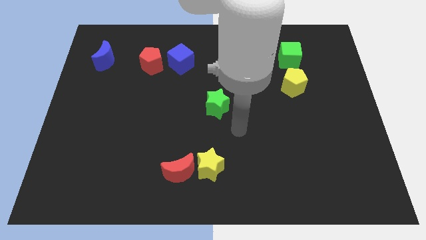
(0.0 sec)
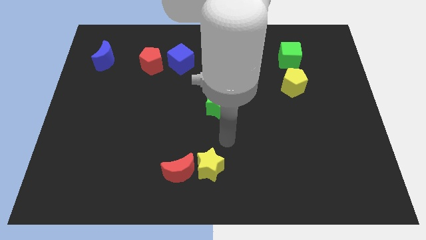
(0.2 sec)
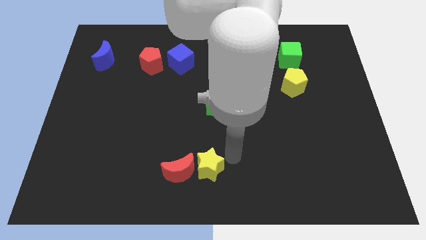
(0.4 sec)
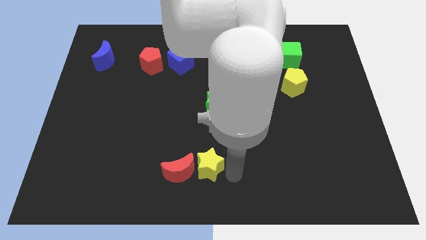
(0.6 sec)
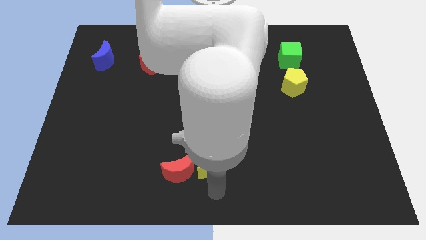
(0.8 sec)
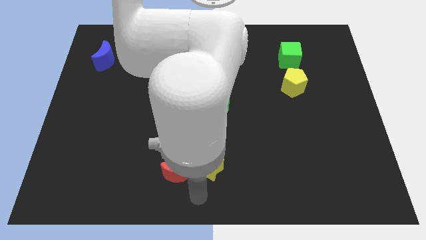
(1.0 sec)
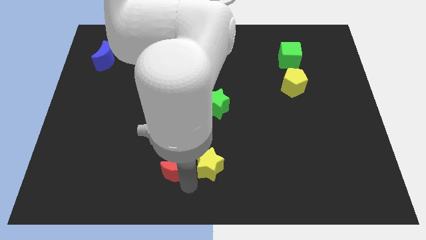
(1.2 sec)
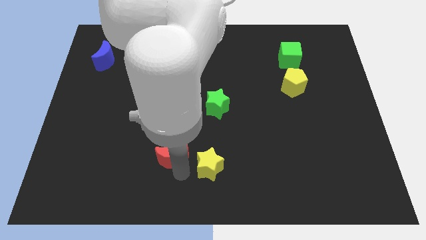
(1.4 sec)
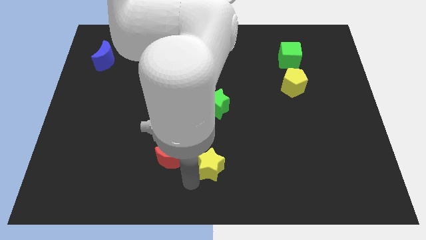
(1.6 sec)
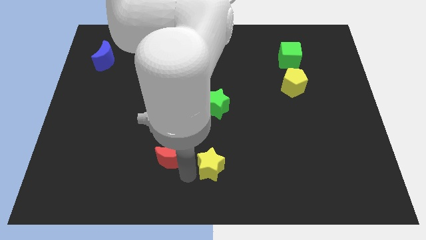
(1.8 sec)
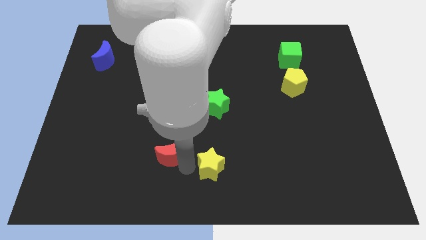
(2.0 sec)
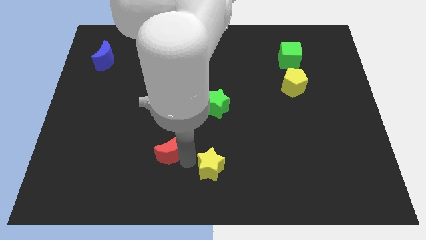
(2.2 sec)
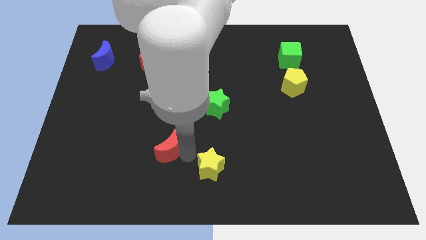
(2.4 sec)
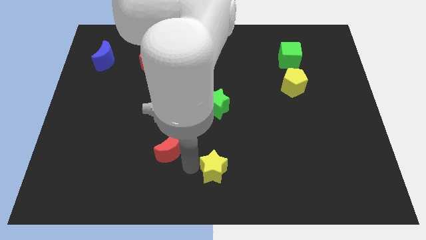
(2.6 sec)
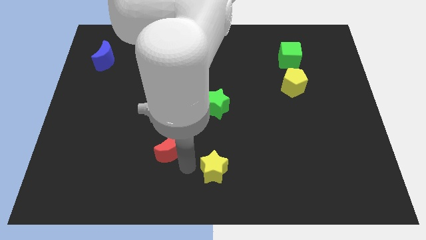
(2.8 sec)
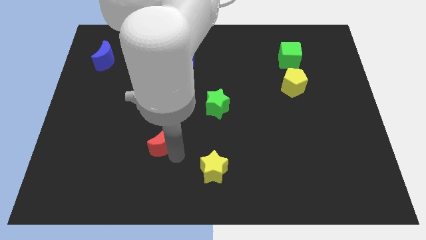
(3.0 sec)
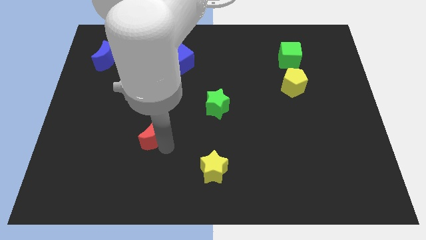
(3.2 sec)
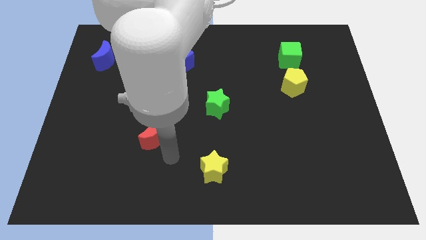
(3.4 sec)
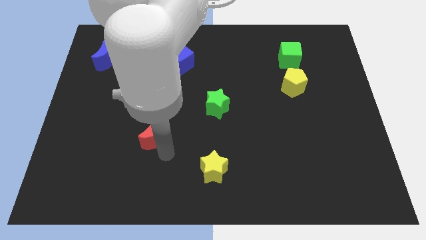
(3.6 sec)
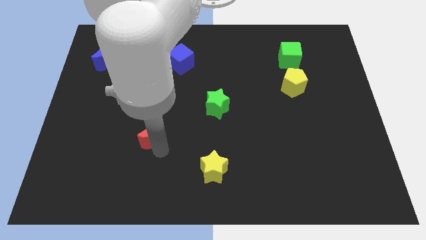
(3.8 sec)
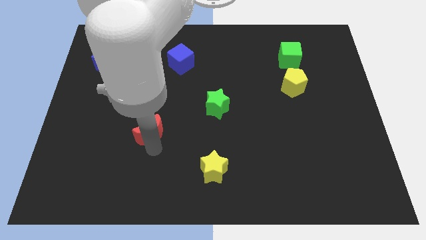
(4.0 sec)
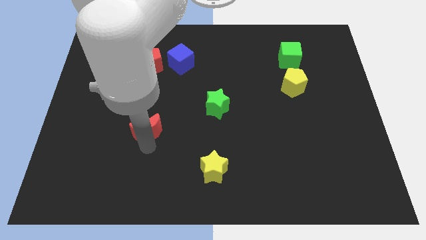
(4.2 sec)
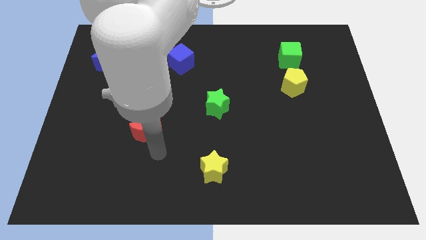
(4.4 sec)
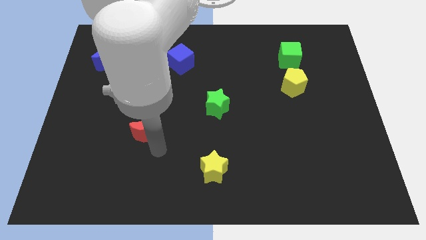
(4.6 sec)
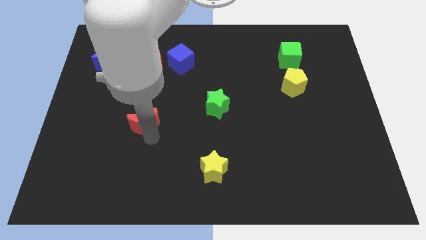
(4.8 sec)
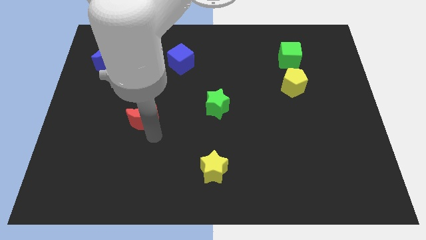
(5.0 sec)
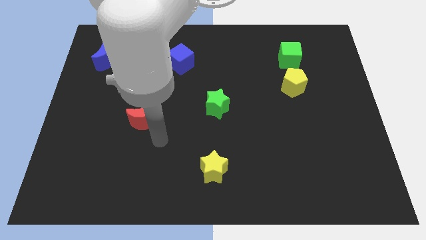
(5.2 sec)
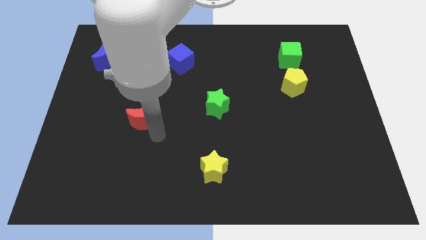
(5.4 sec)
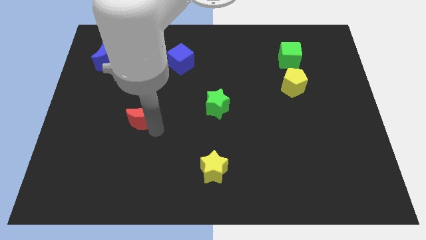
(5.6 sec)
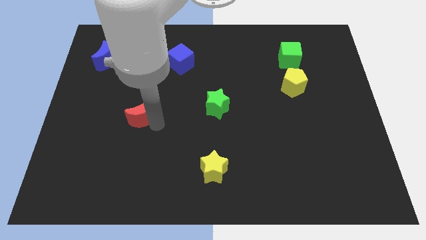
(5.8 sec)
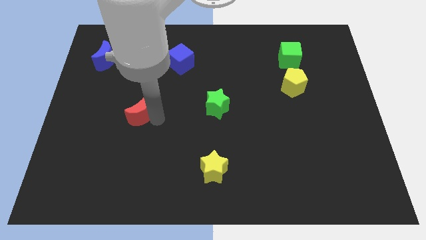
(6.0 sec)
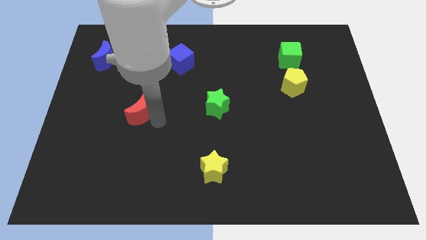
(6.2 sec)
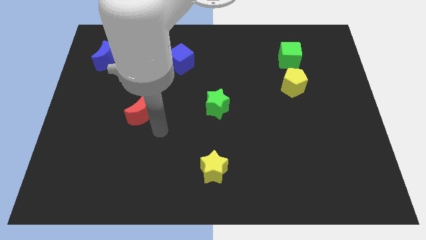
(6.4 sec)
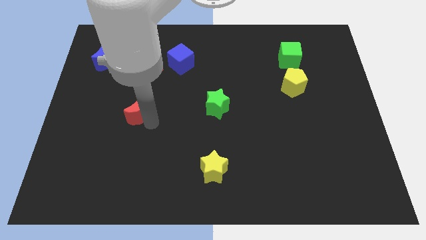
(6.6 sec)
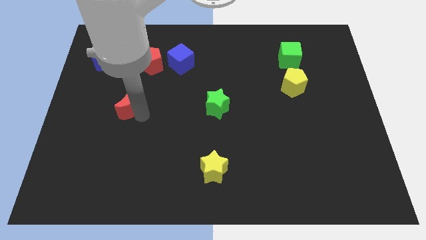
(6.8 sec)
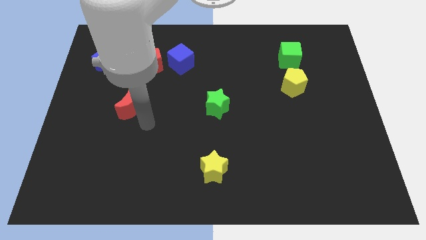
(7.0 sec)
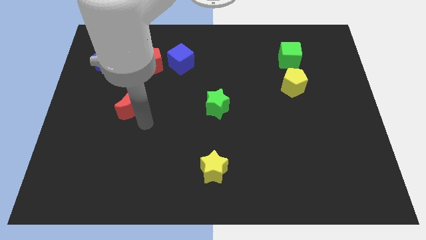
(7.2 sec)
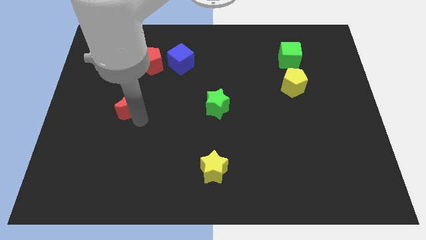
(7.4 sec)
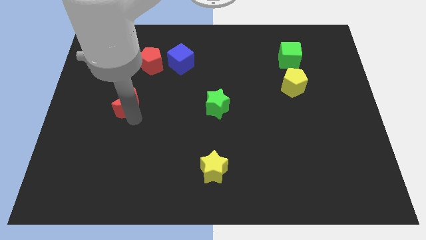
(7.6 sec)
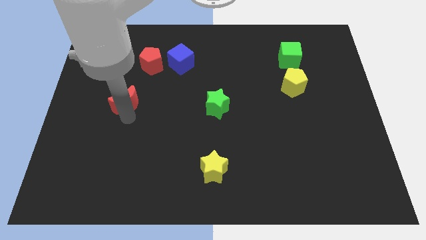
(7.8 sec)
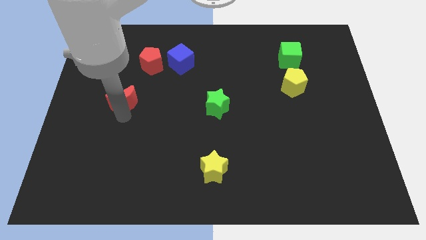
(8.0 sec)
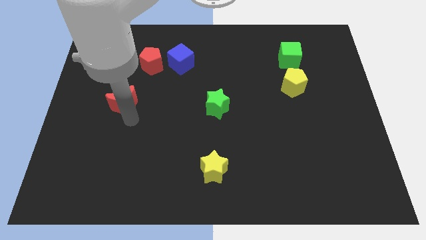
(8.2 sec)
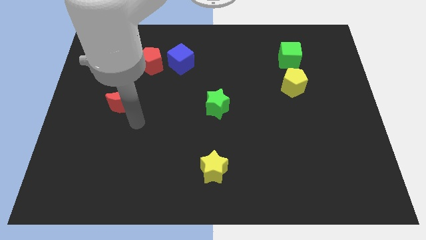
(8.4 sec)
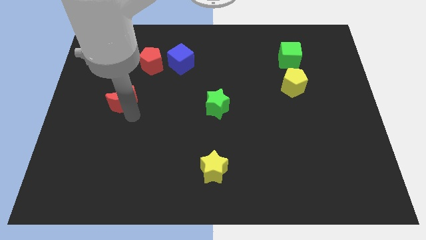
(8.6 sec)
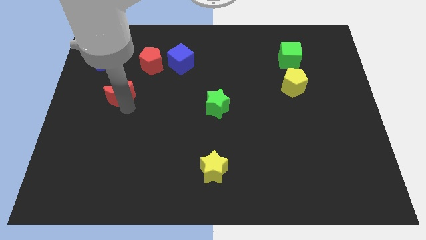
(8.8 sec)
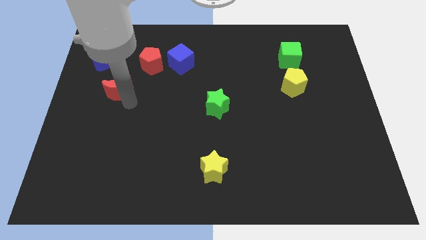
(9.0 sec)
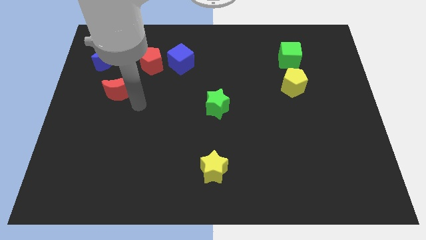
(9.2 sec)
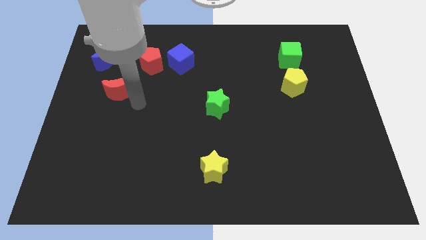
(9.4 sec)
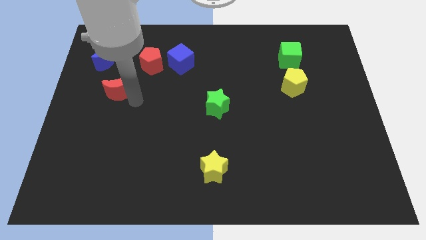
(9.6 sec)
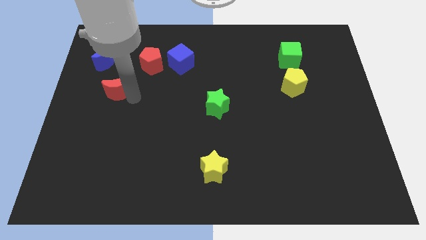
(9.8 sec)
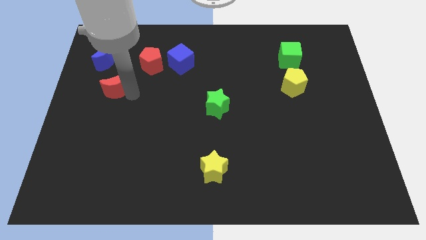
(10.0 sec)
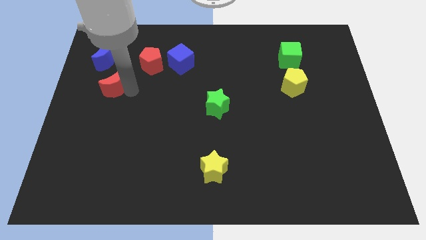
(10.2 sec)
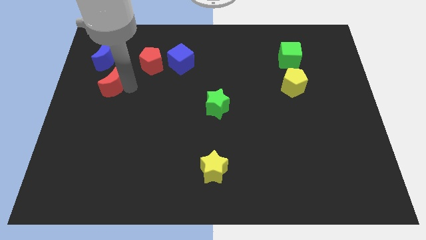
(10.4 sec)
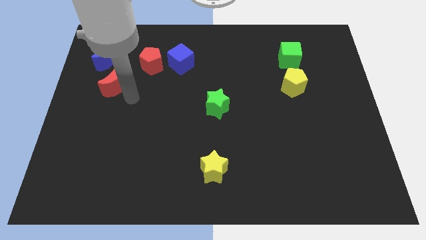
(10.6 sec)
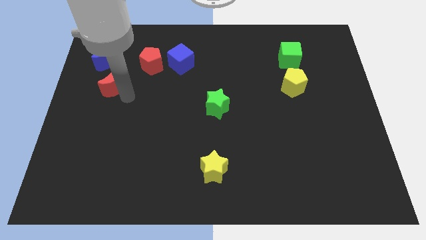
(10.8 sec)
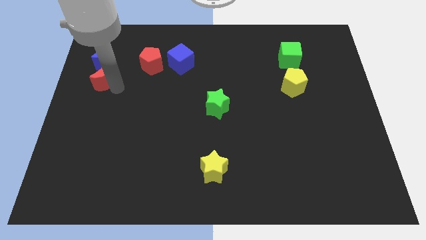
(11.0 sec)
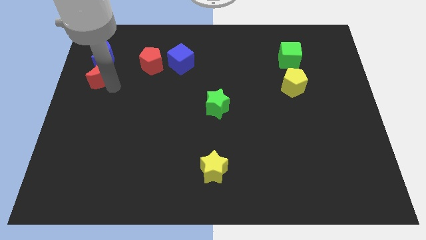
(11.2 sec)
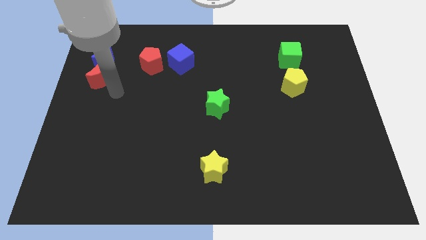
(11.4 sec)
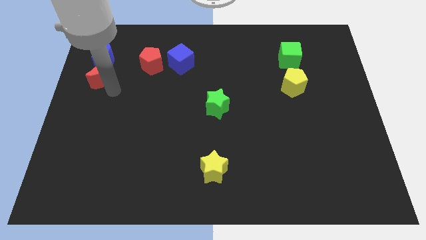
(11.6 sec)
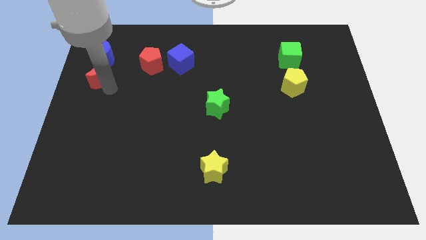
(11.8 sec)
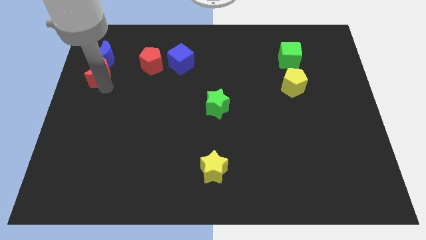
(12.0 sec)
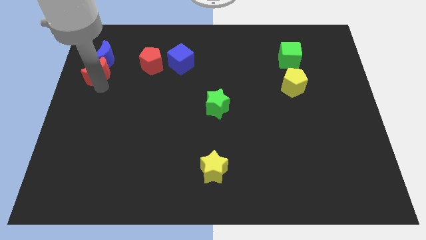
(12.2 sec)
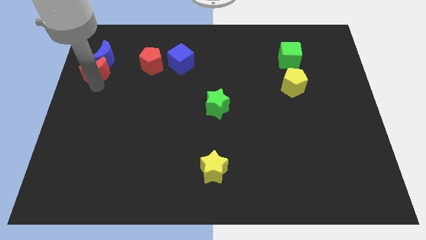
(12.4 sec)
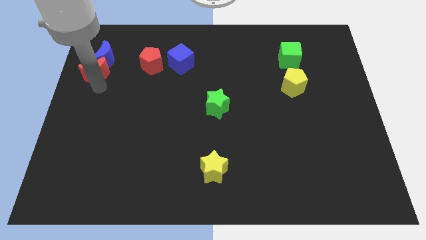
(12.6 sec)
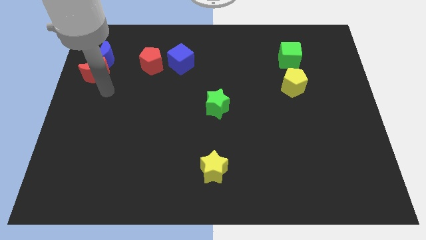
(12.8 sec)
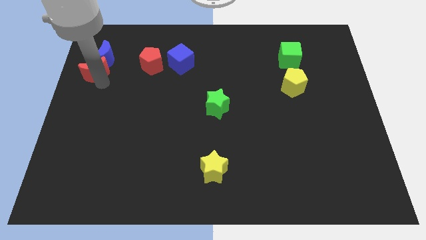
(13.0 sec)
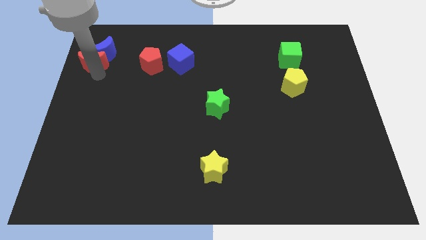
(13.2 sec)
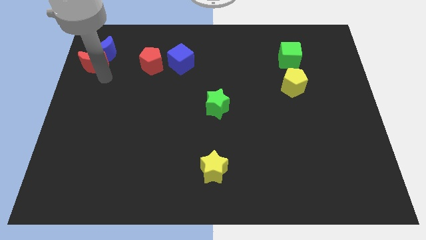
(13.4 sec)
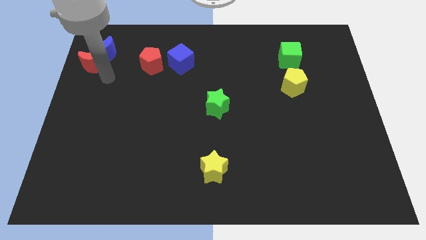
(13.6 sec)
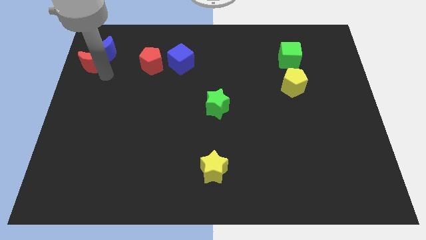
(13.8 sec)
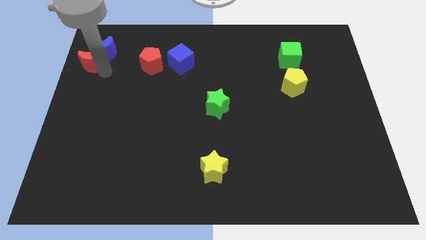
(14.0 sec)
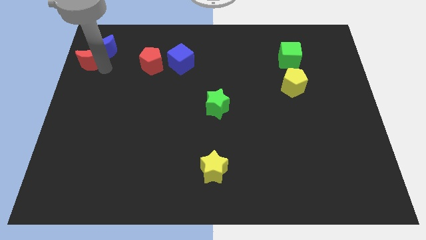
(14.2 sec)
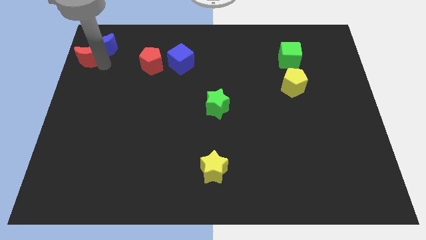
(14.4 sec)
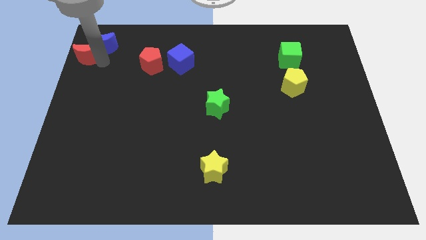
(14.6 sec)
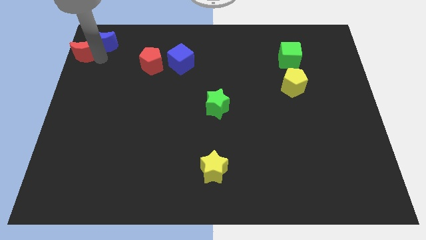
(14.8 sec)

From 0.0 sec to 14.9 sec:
slide the red moon to the top left corner
